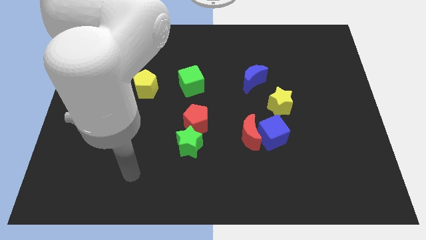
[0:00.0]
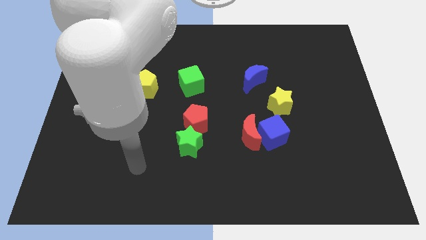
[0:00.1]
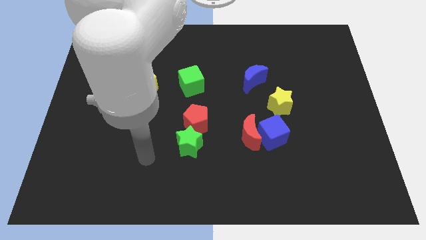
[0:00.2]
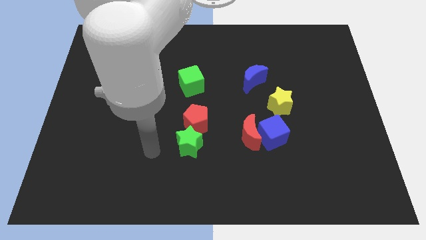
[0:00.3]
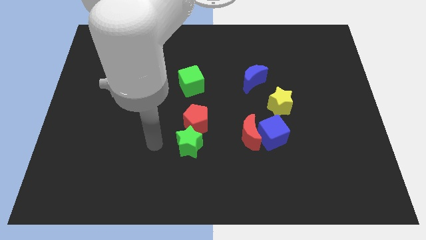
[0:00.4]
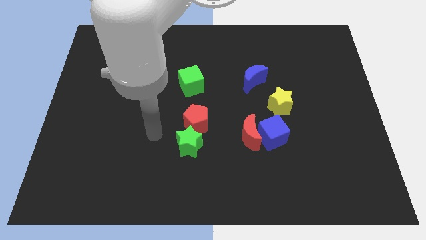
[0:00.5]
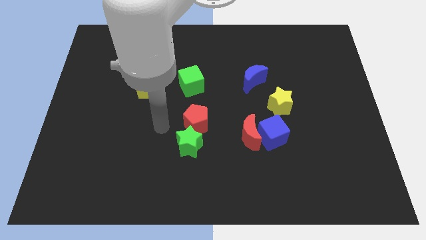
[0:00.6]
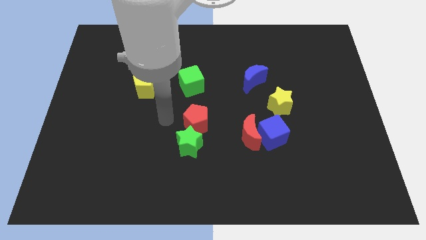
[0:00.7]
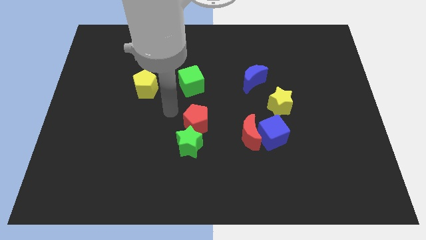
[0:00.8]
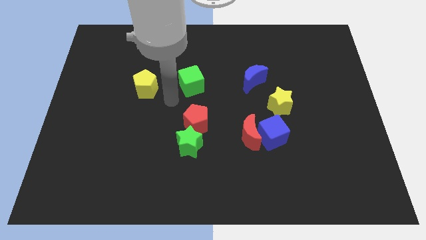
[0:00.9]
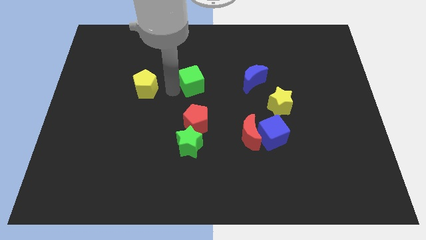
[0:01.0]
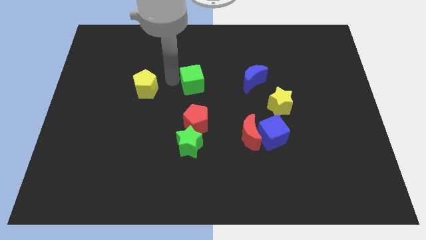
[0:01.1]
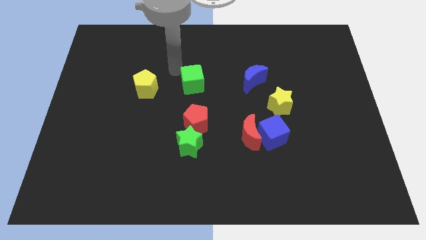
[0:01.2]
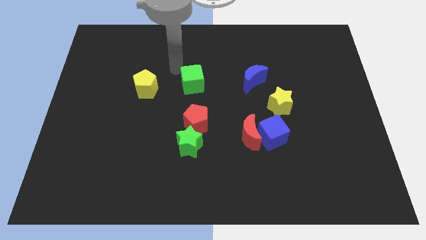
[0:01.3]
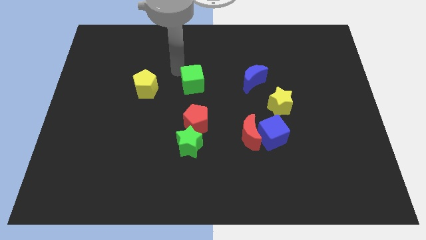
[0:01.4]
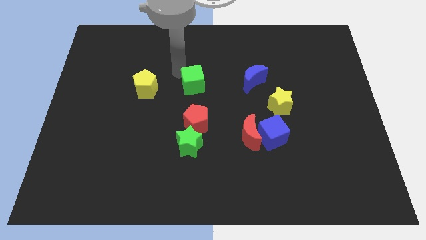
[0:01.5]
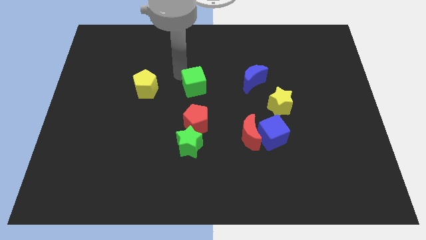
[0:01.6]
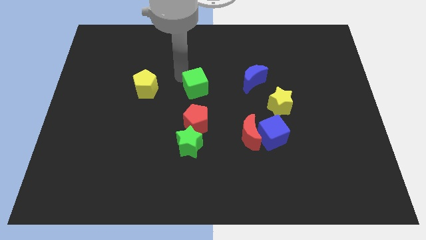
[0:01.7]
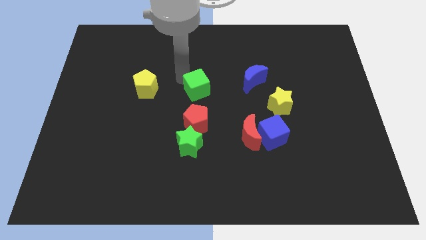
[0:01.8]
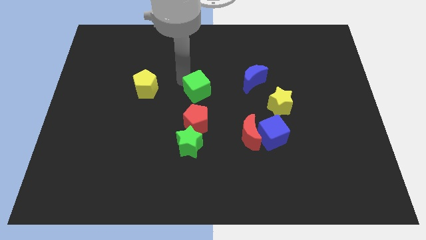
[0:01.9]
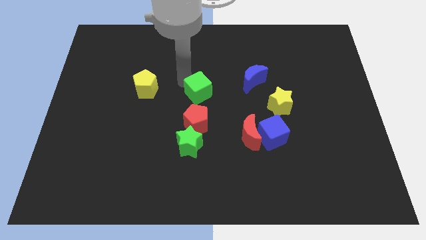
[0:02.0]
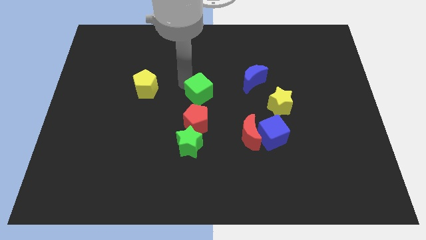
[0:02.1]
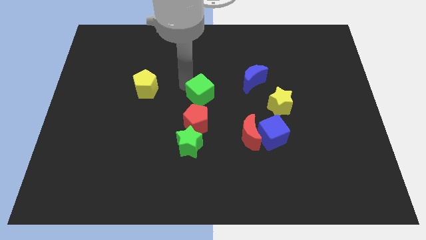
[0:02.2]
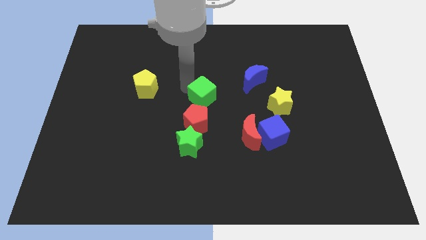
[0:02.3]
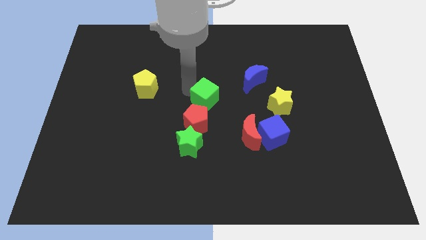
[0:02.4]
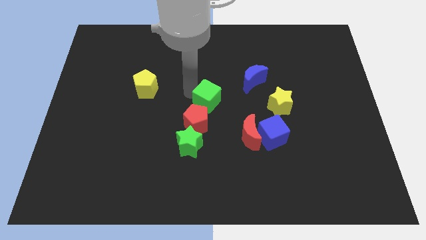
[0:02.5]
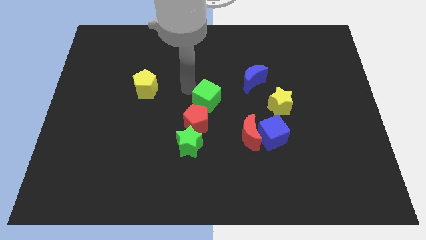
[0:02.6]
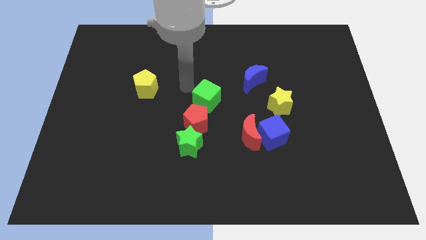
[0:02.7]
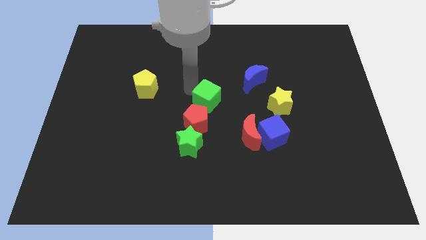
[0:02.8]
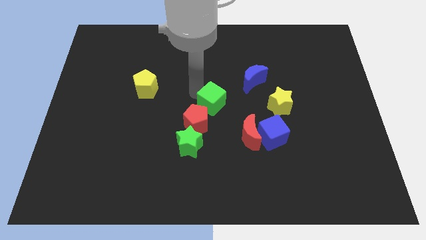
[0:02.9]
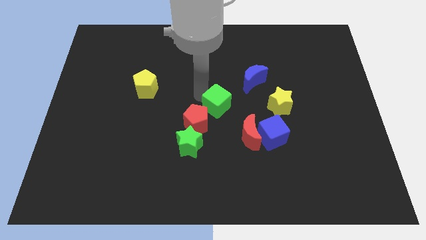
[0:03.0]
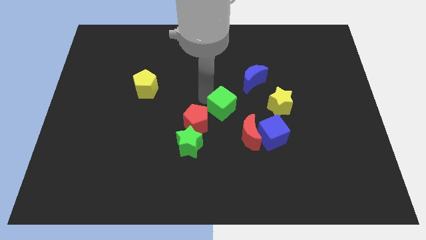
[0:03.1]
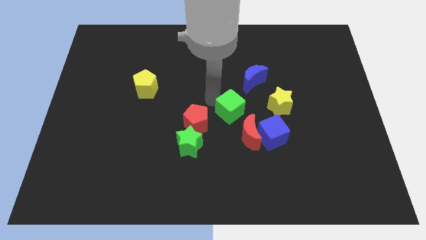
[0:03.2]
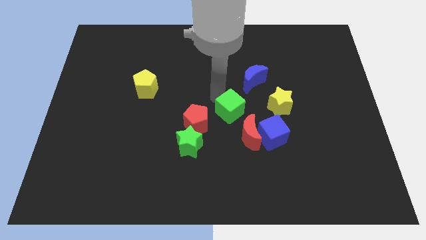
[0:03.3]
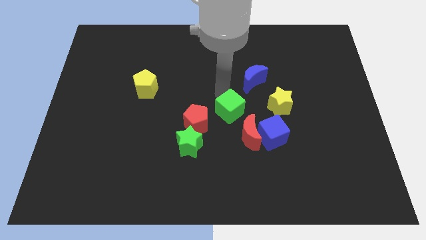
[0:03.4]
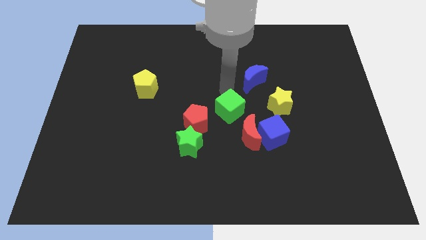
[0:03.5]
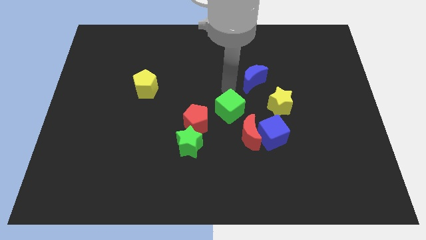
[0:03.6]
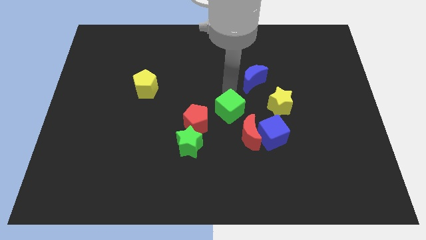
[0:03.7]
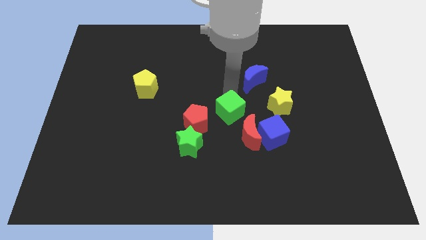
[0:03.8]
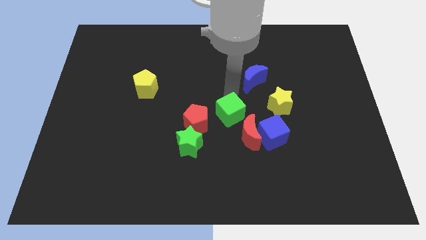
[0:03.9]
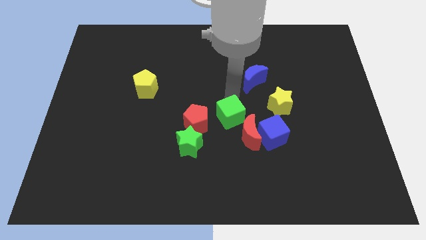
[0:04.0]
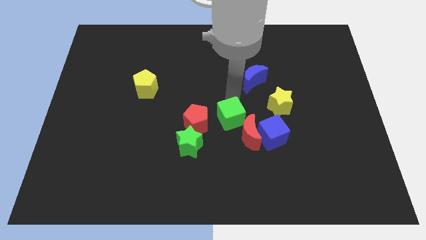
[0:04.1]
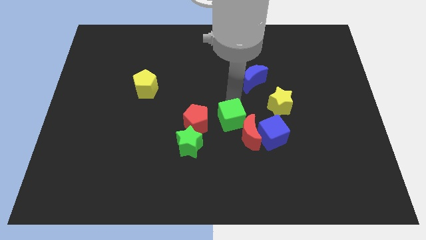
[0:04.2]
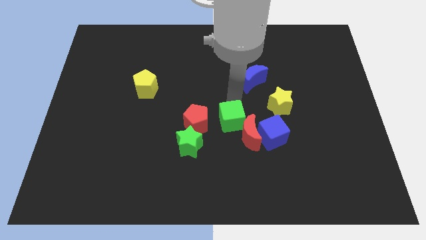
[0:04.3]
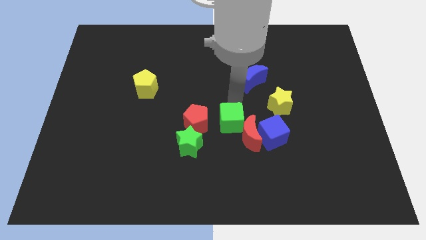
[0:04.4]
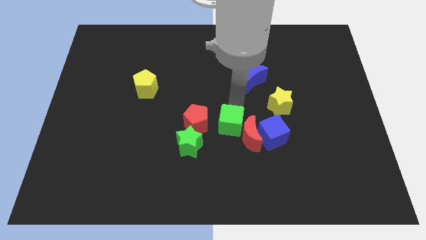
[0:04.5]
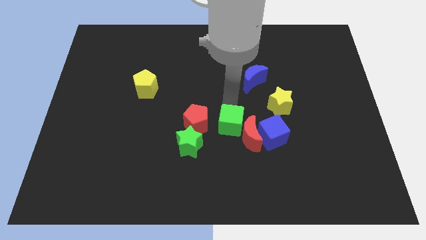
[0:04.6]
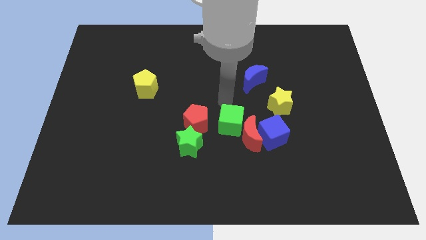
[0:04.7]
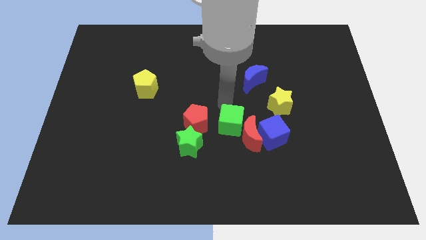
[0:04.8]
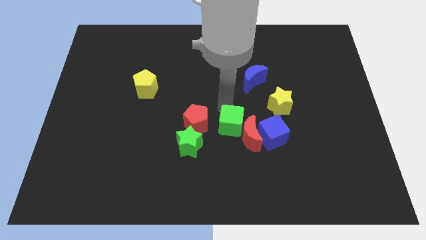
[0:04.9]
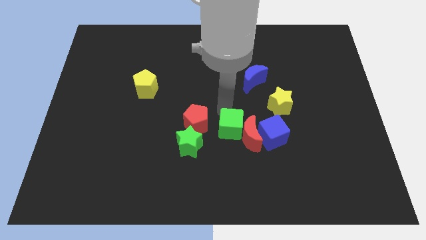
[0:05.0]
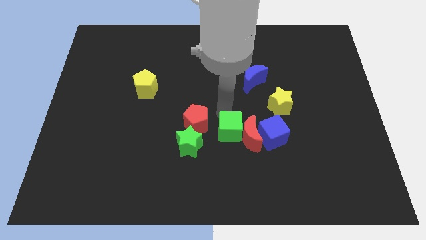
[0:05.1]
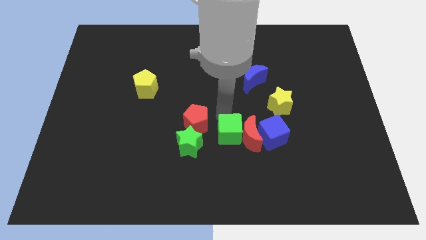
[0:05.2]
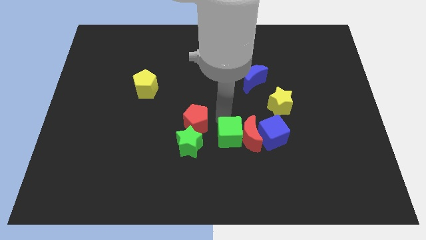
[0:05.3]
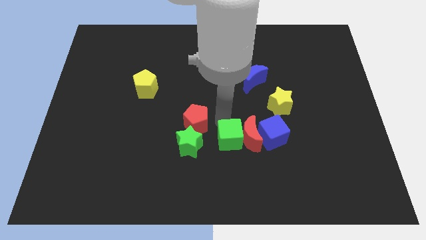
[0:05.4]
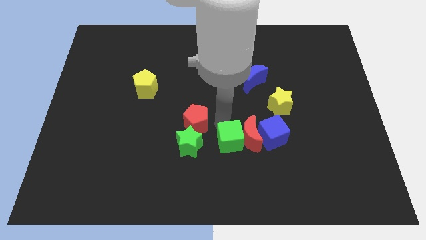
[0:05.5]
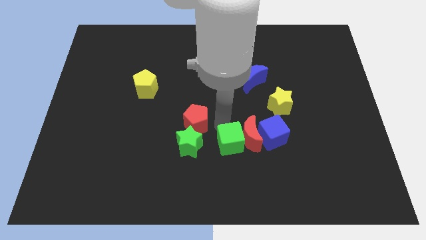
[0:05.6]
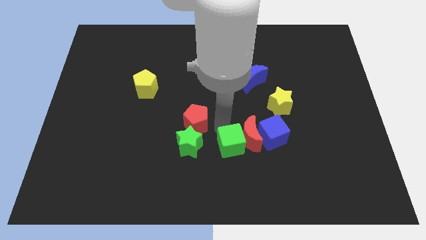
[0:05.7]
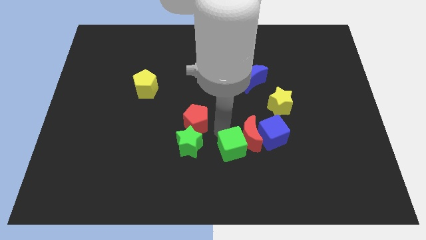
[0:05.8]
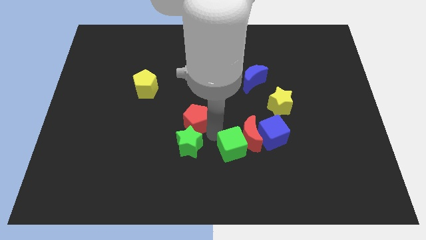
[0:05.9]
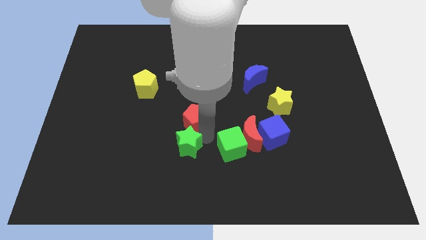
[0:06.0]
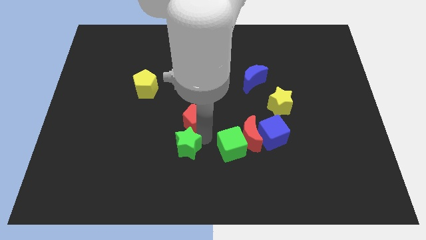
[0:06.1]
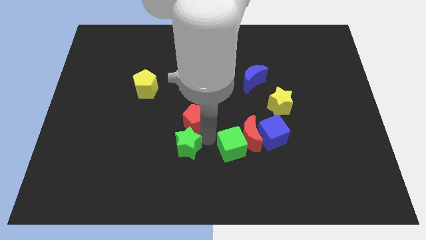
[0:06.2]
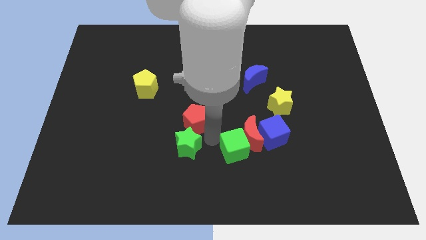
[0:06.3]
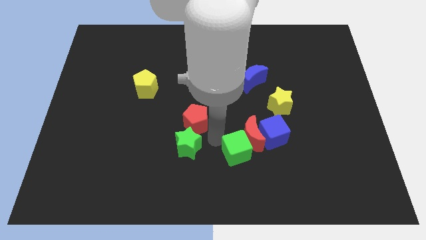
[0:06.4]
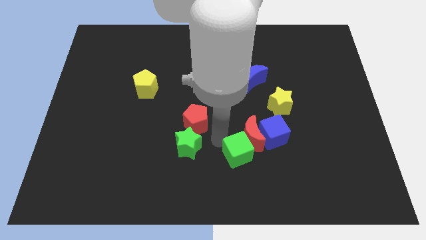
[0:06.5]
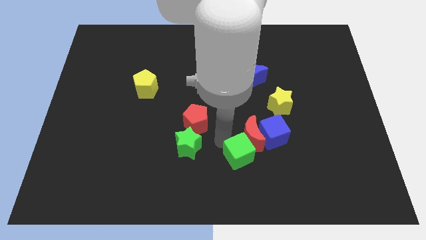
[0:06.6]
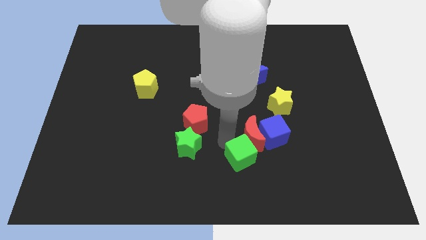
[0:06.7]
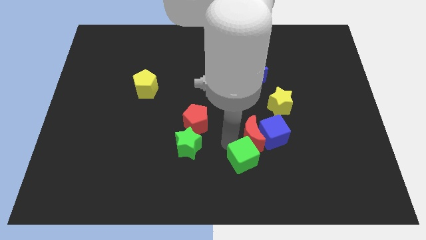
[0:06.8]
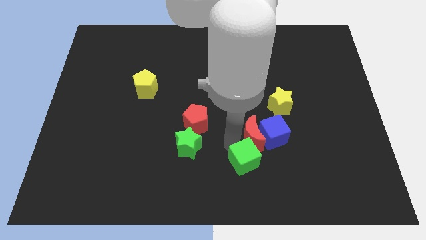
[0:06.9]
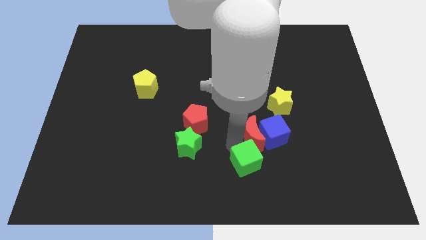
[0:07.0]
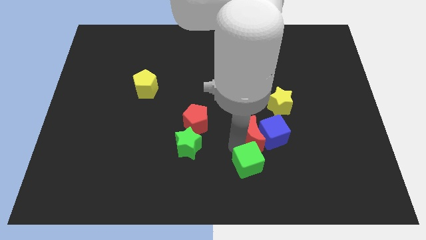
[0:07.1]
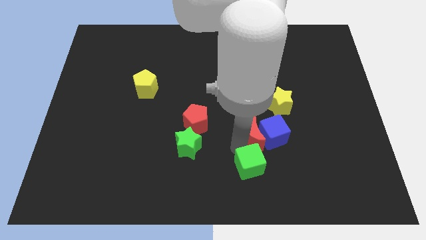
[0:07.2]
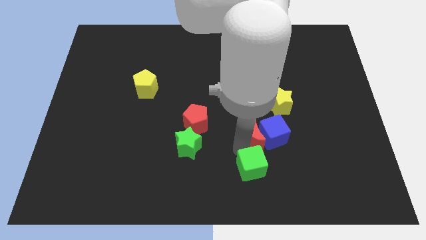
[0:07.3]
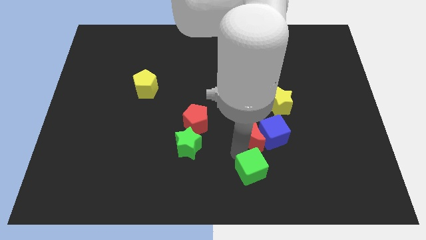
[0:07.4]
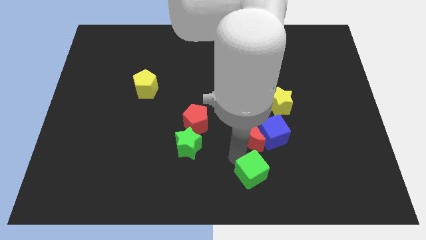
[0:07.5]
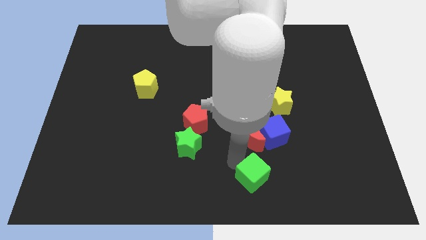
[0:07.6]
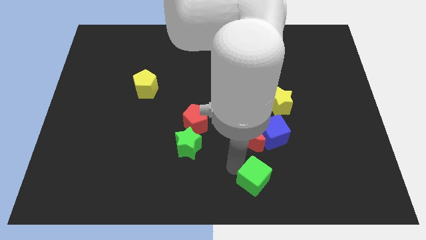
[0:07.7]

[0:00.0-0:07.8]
slide the green cube to the bottom side of the blue cube

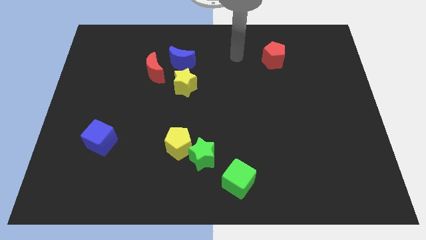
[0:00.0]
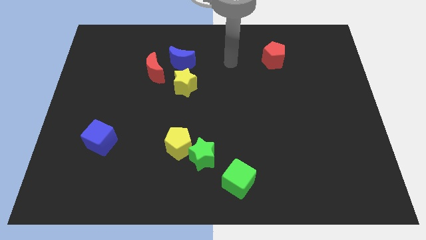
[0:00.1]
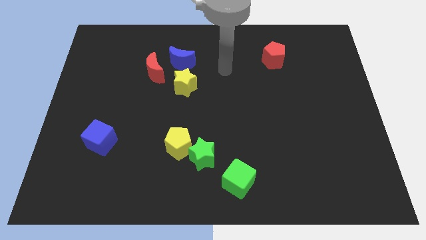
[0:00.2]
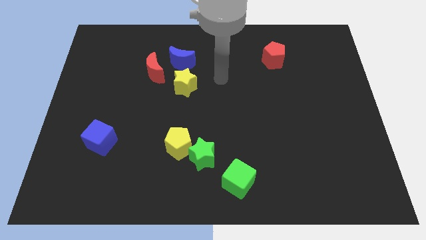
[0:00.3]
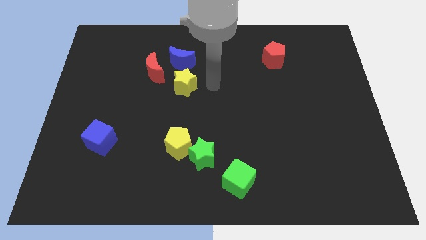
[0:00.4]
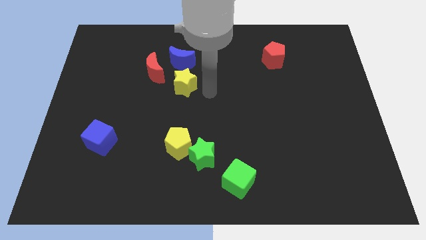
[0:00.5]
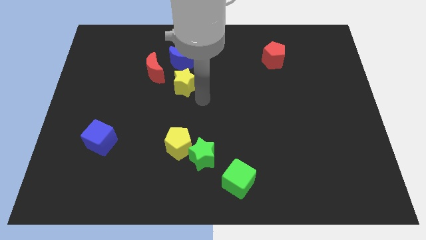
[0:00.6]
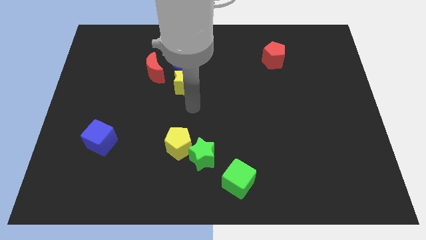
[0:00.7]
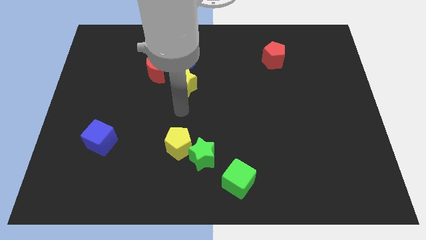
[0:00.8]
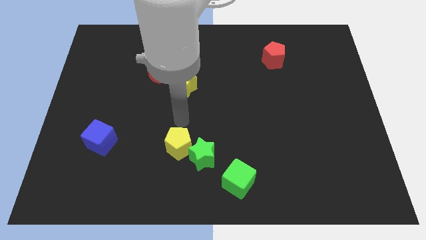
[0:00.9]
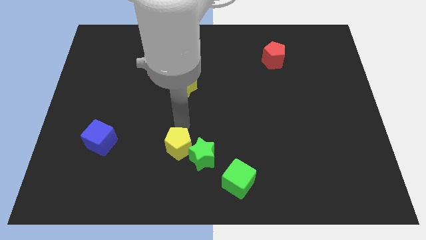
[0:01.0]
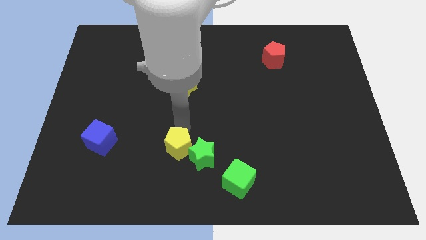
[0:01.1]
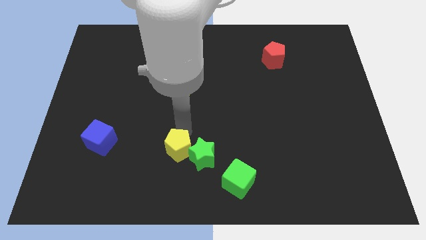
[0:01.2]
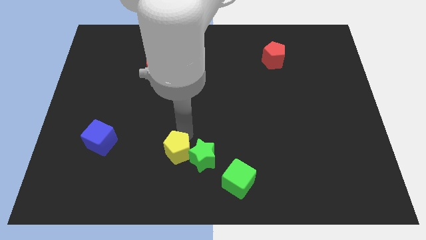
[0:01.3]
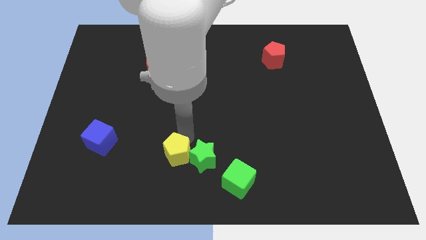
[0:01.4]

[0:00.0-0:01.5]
put the yellow pentagon diagonally down and to the left of the green star
